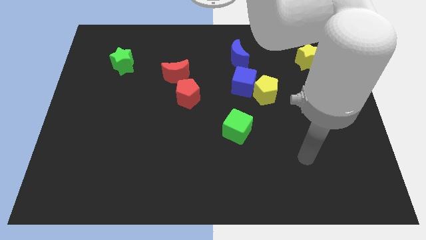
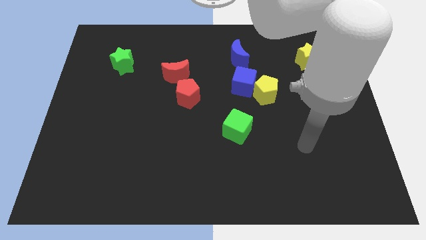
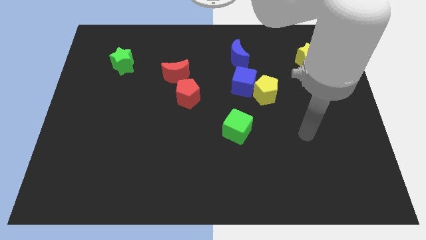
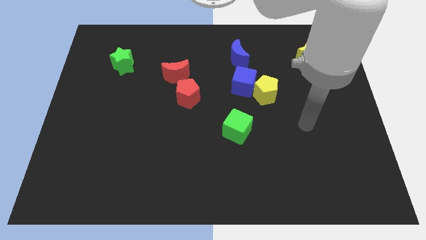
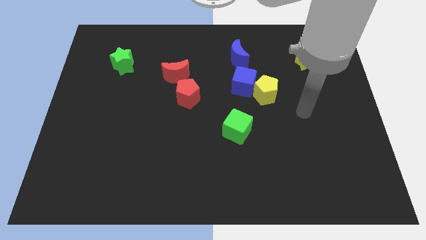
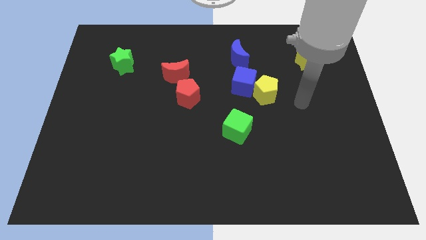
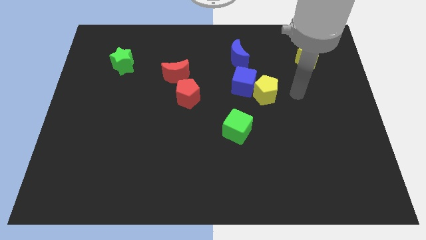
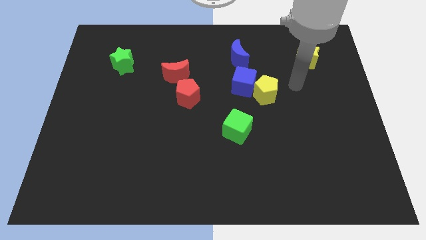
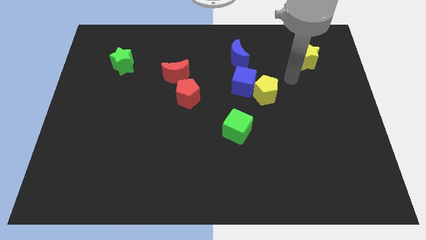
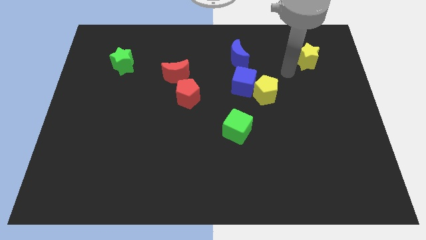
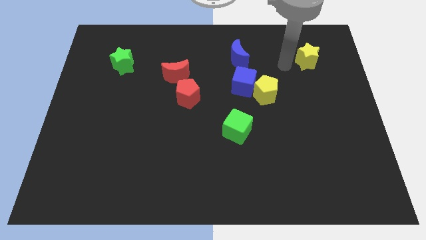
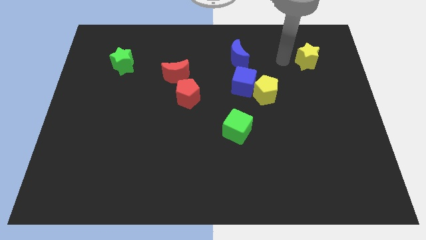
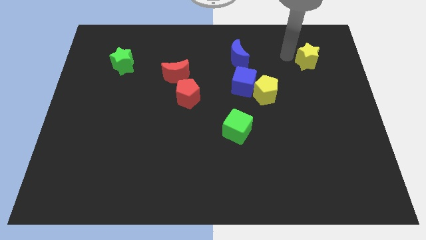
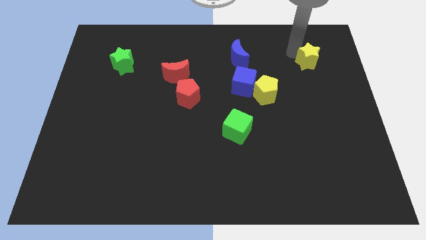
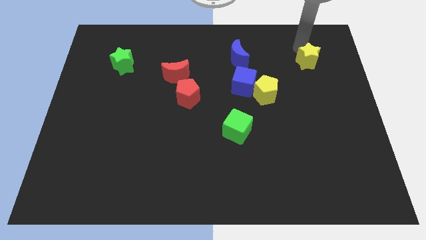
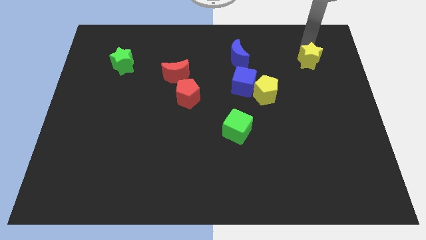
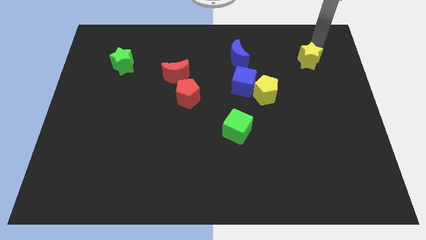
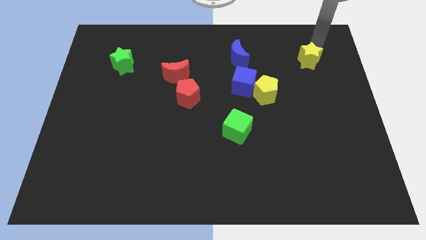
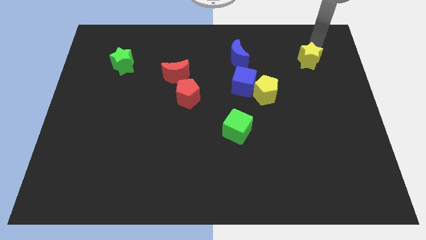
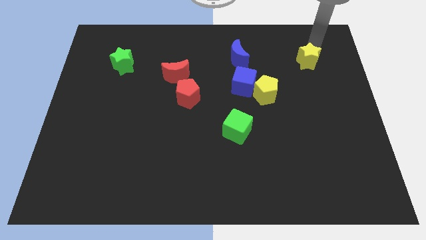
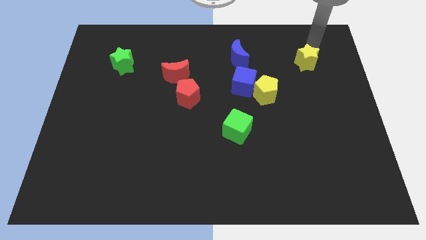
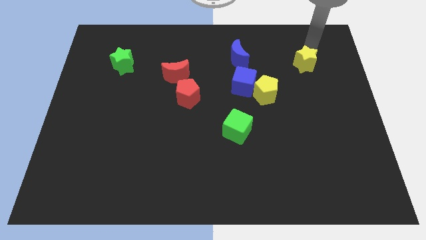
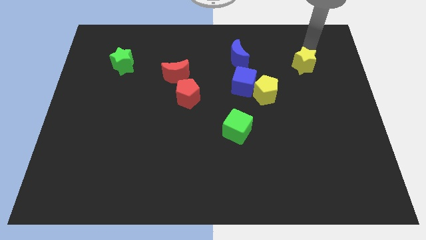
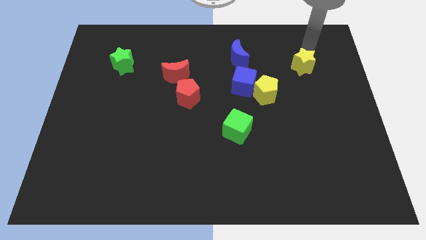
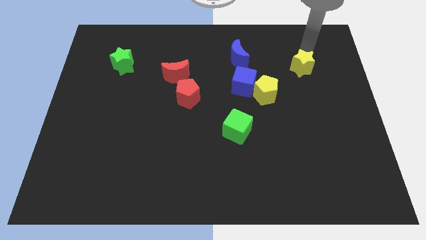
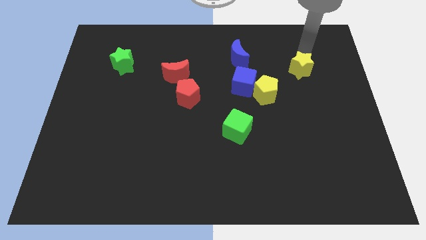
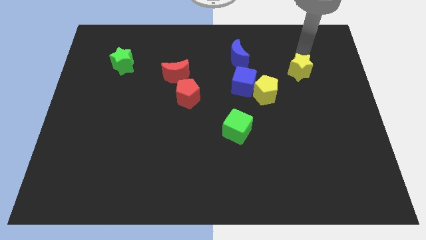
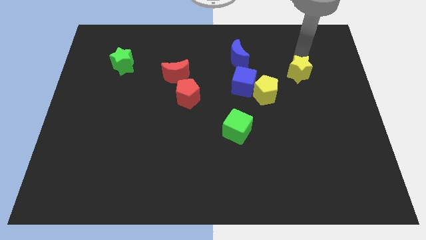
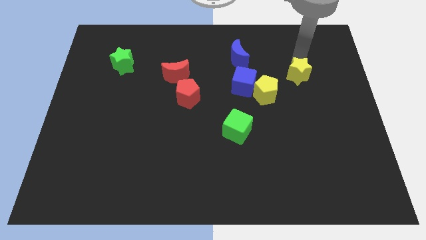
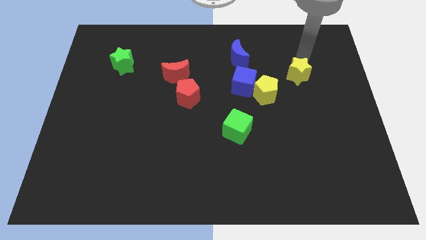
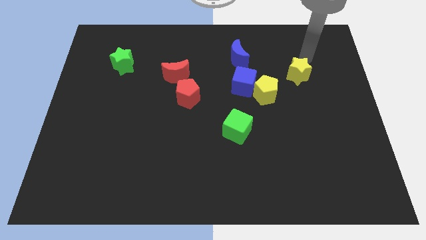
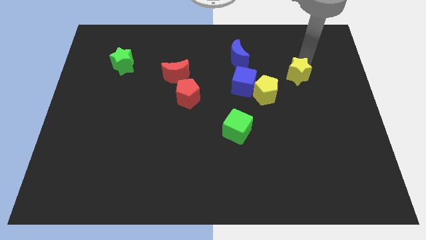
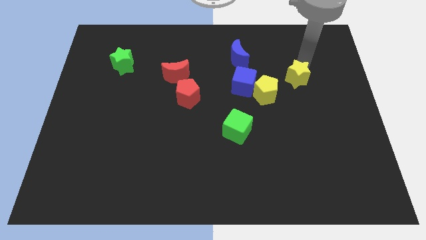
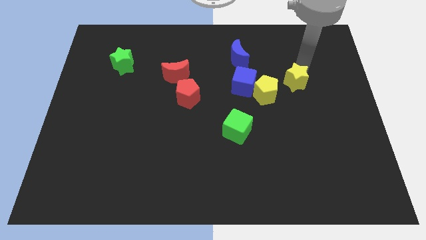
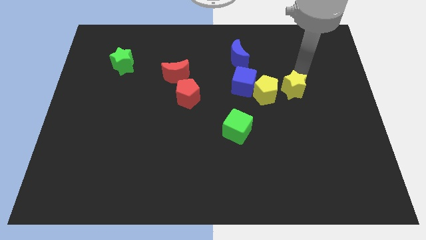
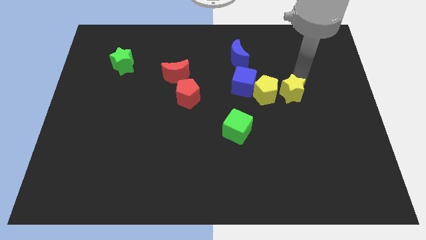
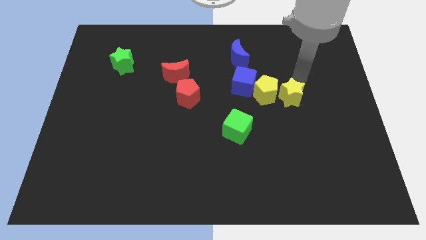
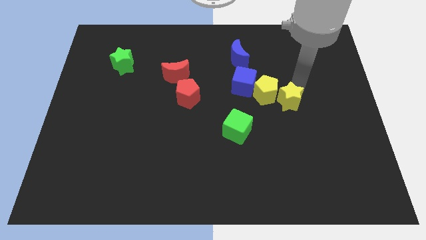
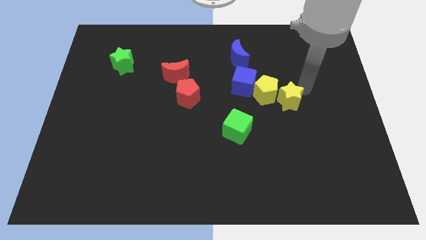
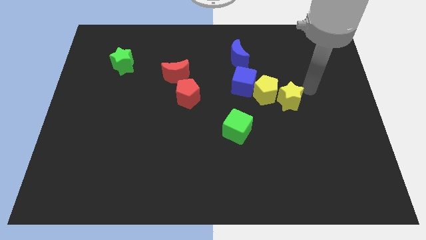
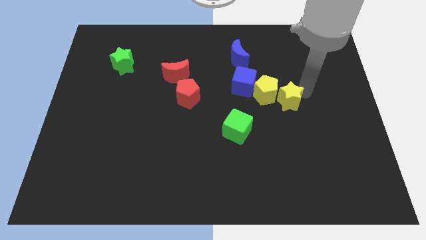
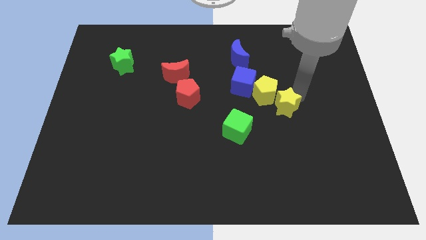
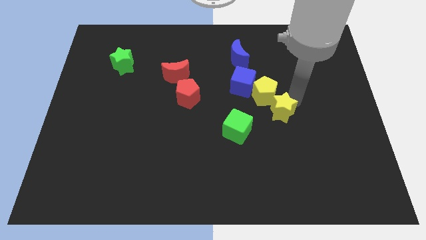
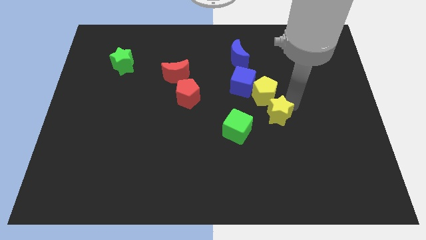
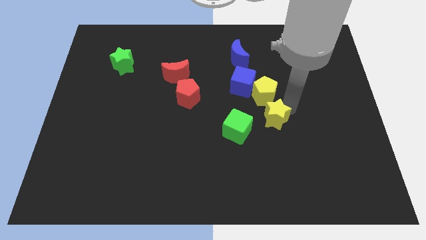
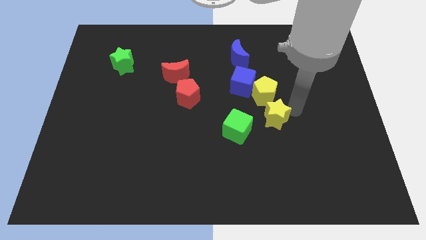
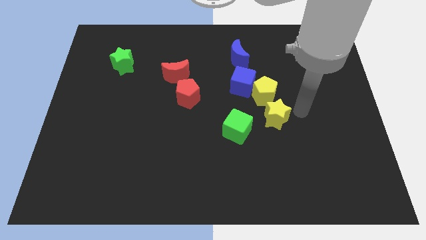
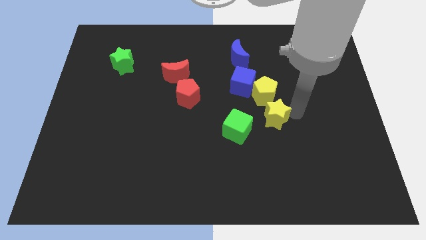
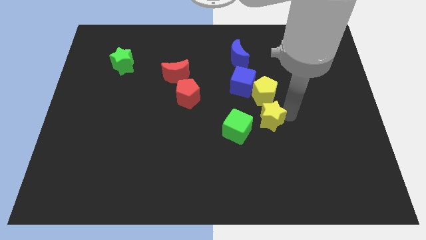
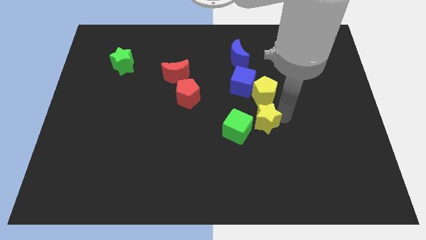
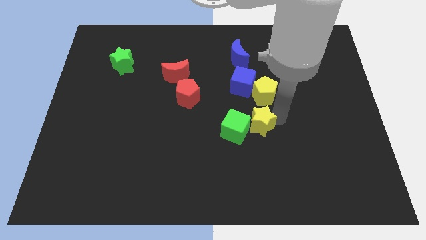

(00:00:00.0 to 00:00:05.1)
slide the yellow star next to the green cube
